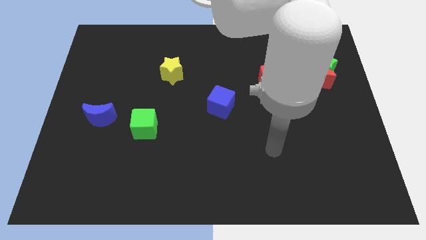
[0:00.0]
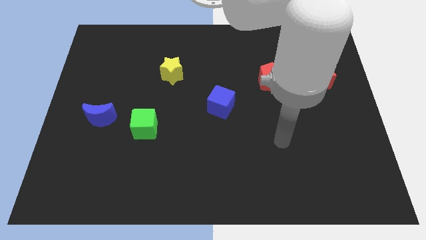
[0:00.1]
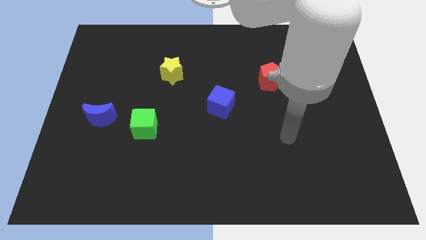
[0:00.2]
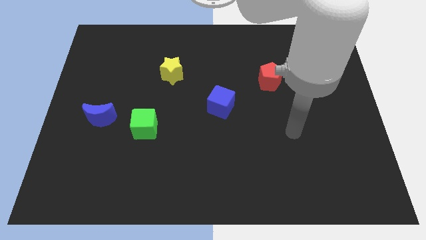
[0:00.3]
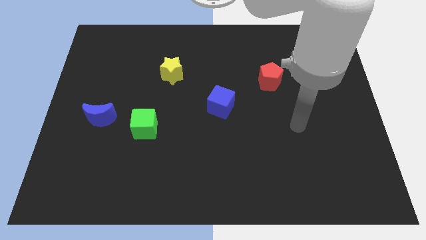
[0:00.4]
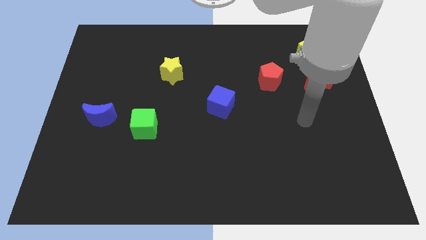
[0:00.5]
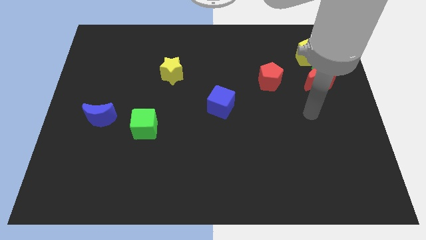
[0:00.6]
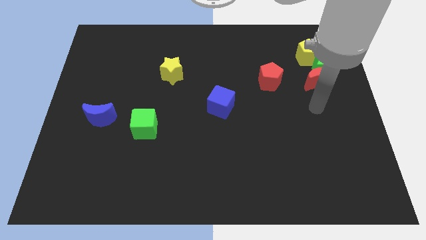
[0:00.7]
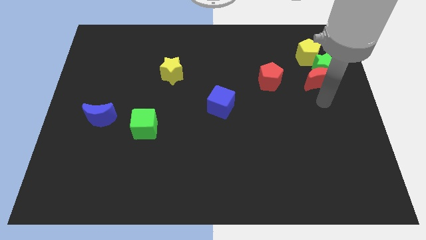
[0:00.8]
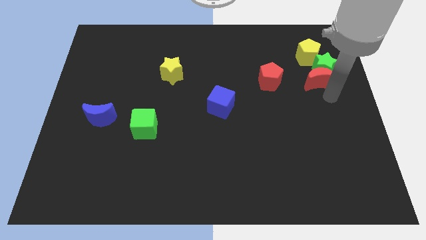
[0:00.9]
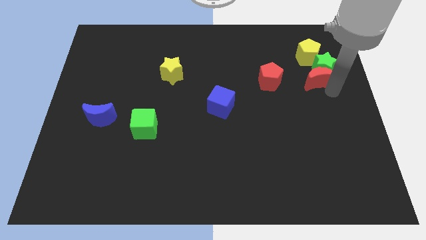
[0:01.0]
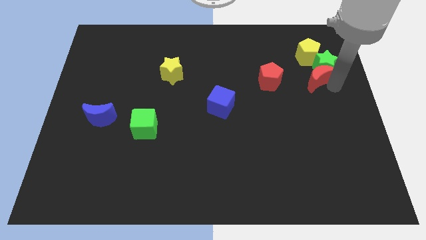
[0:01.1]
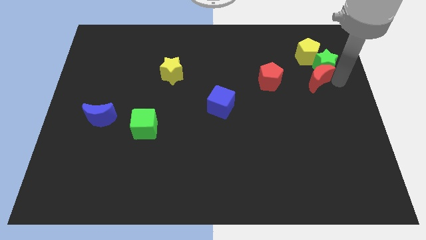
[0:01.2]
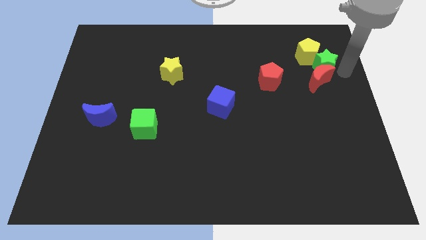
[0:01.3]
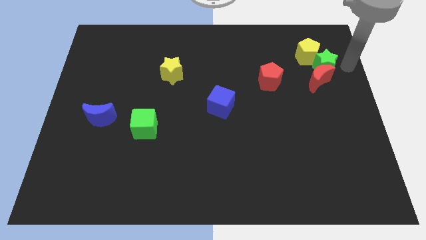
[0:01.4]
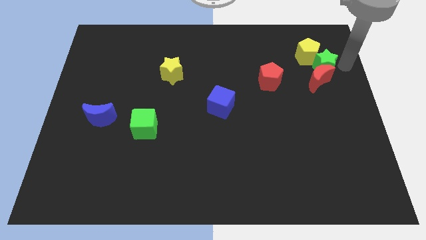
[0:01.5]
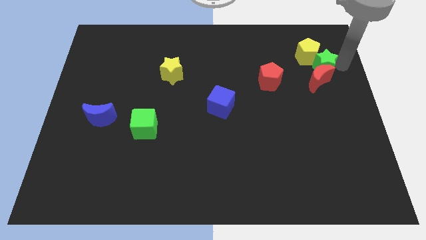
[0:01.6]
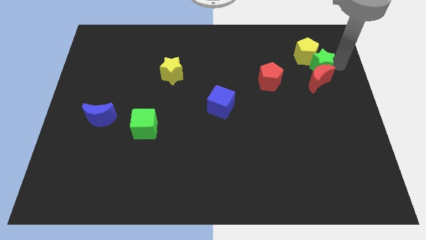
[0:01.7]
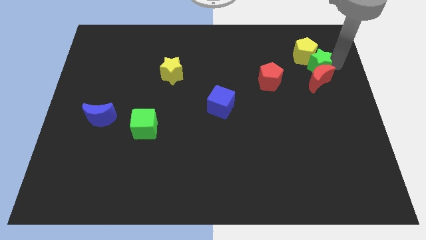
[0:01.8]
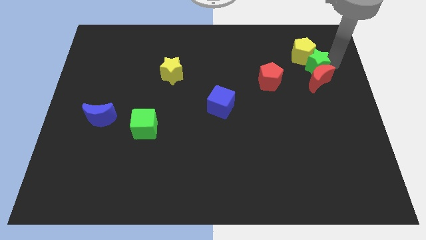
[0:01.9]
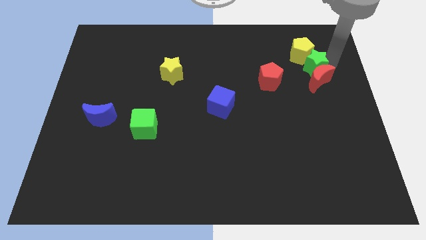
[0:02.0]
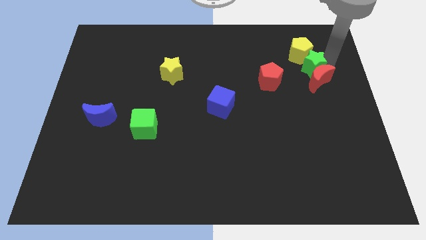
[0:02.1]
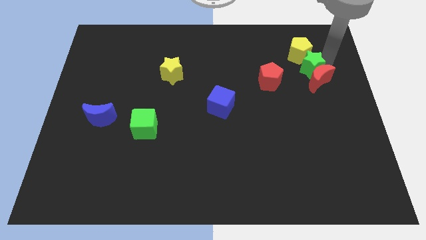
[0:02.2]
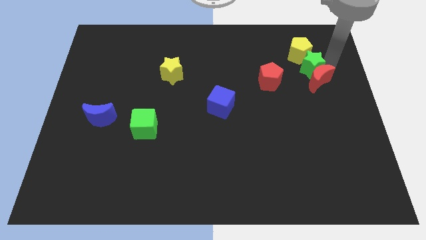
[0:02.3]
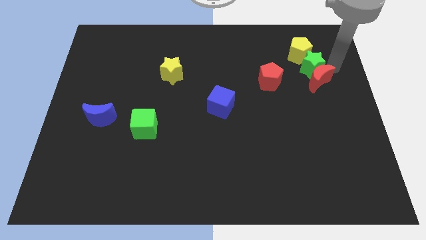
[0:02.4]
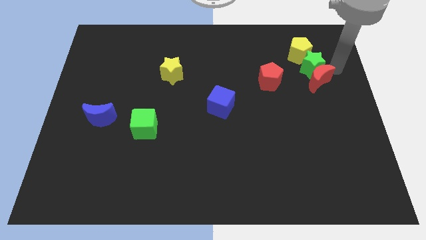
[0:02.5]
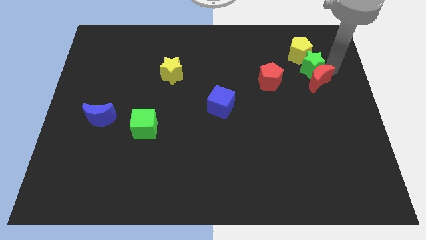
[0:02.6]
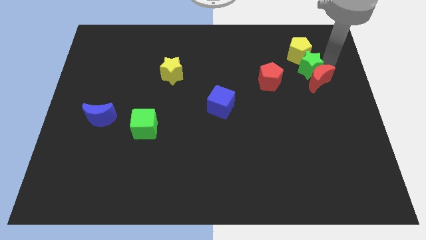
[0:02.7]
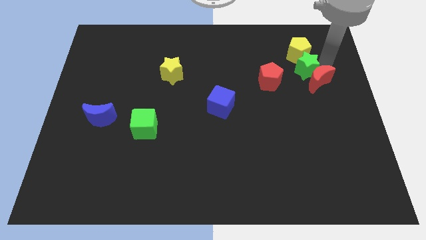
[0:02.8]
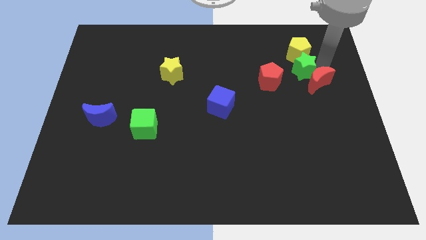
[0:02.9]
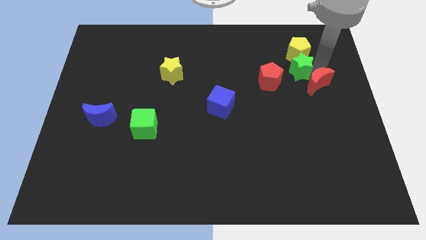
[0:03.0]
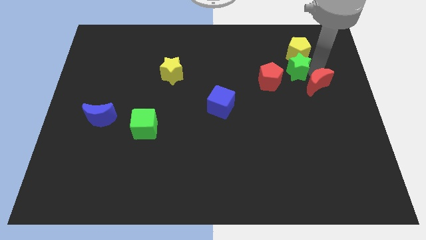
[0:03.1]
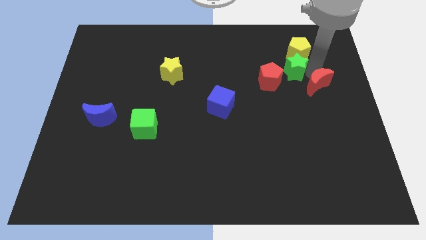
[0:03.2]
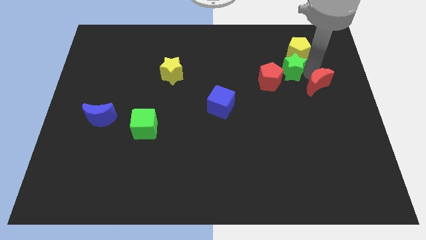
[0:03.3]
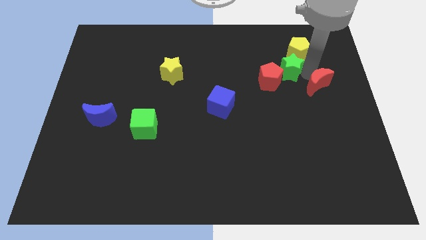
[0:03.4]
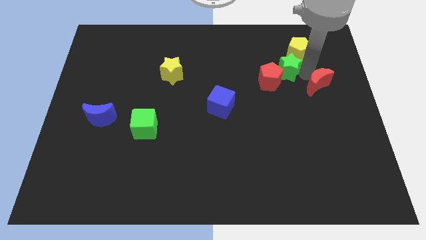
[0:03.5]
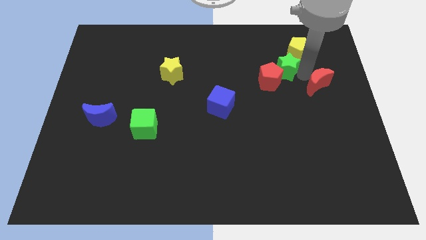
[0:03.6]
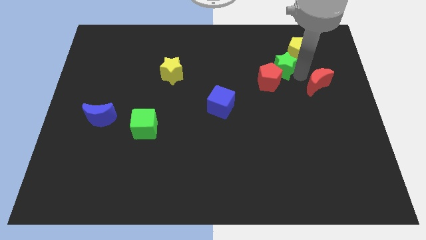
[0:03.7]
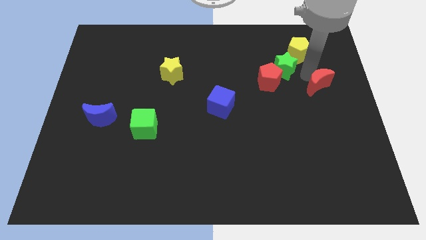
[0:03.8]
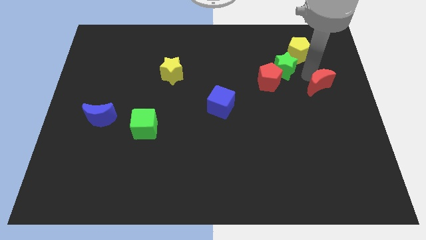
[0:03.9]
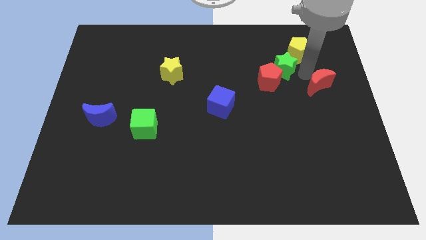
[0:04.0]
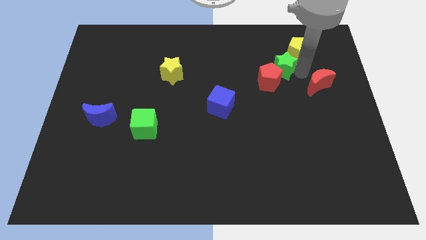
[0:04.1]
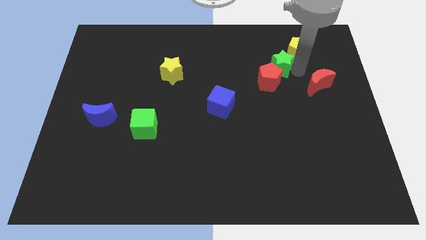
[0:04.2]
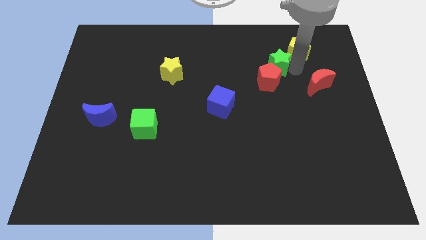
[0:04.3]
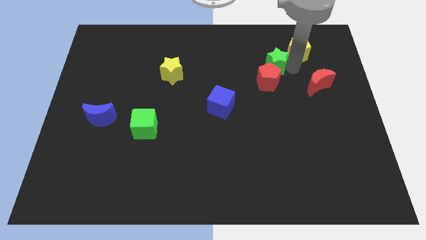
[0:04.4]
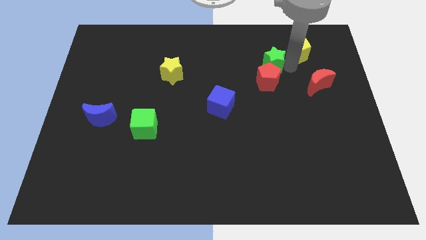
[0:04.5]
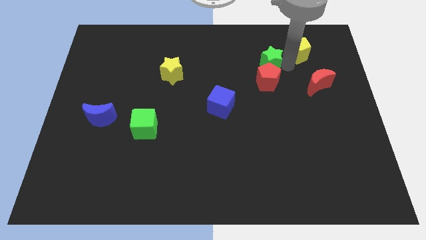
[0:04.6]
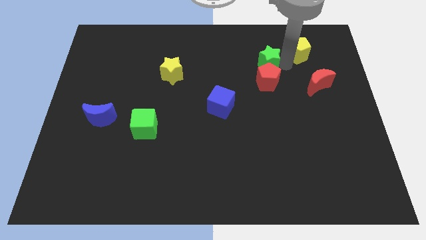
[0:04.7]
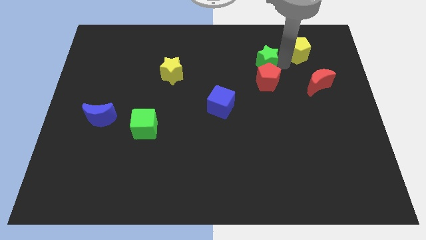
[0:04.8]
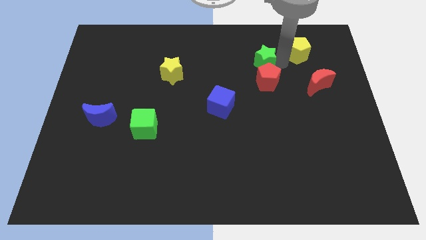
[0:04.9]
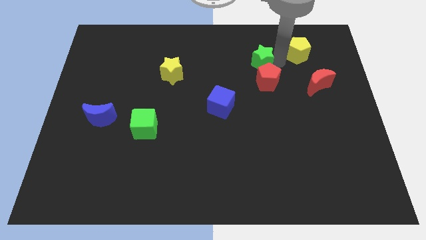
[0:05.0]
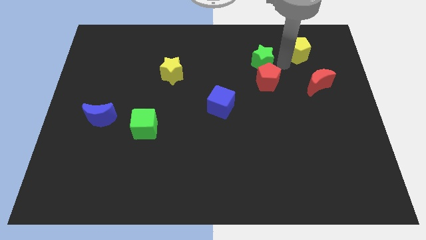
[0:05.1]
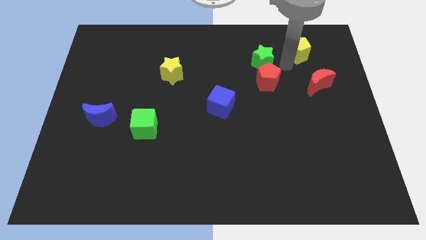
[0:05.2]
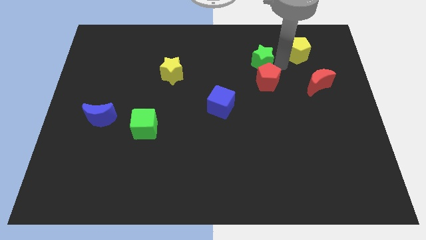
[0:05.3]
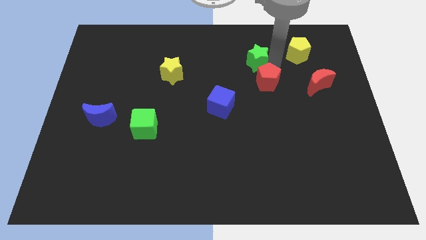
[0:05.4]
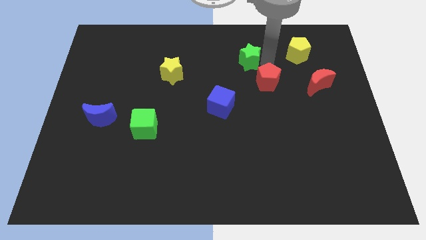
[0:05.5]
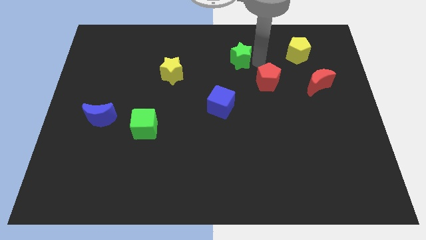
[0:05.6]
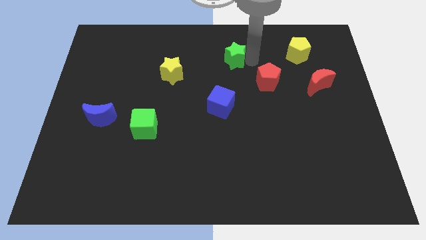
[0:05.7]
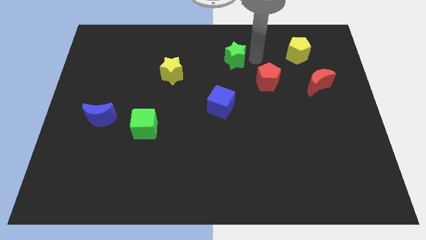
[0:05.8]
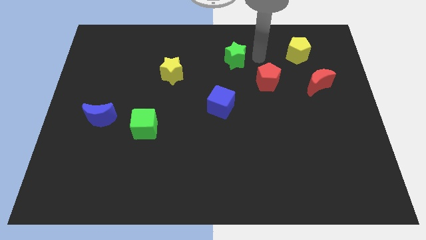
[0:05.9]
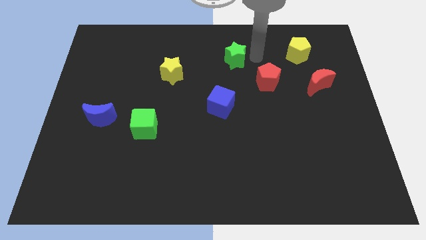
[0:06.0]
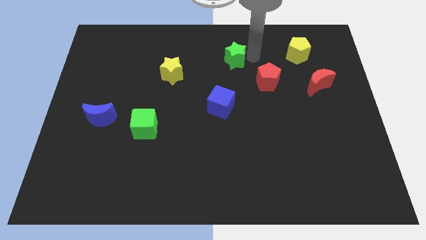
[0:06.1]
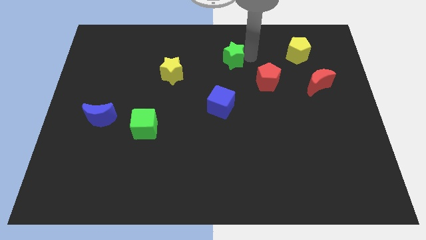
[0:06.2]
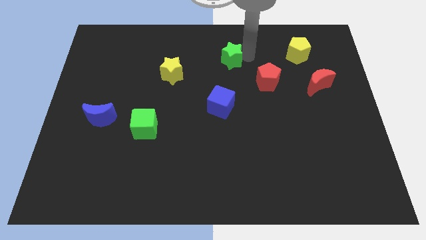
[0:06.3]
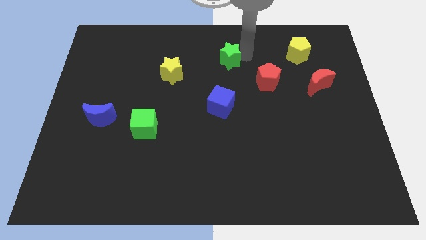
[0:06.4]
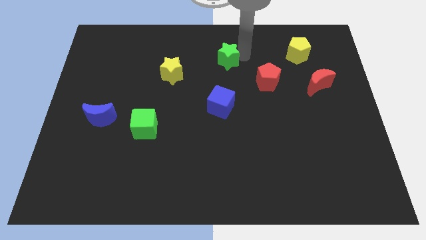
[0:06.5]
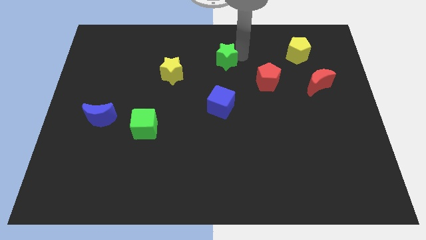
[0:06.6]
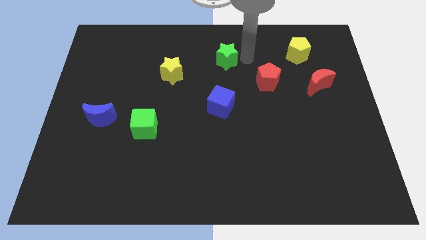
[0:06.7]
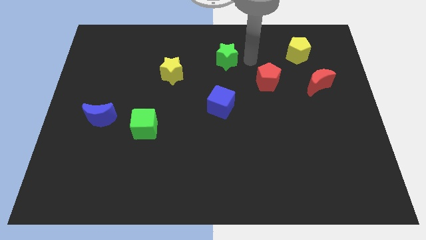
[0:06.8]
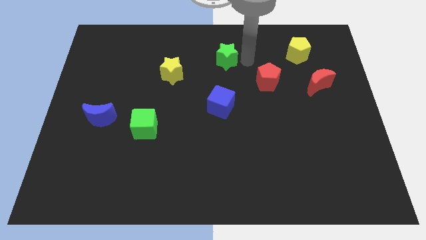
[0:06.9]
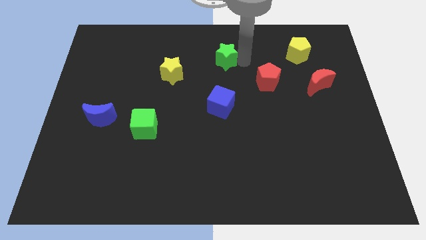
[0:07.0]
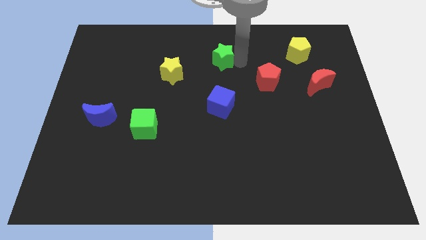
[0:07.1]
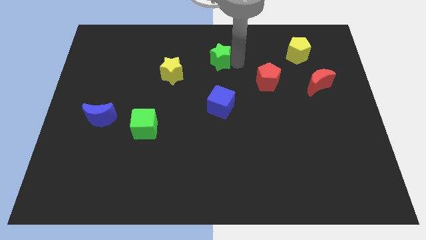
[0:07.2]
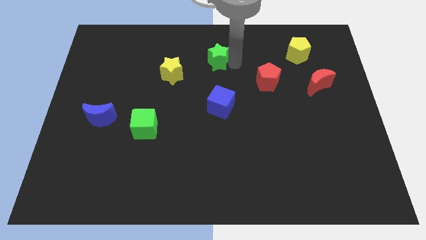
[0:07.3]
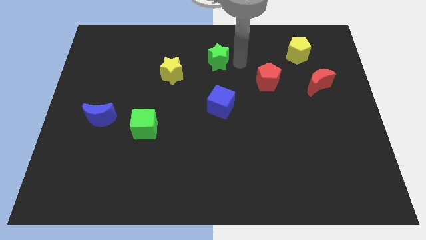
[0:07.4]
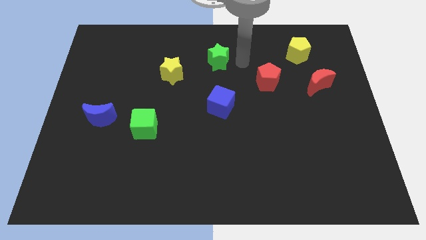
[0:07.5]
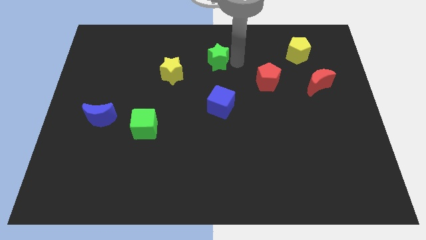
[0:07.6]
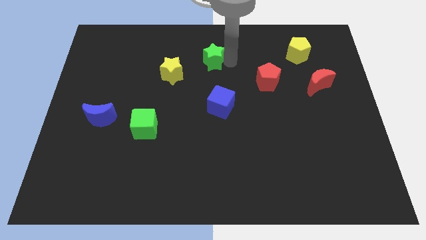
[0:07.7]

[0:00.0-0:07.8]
slide the green star to the top right side of the yellow star
